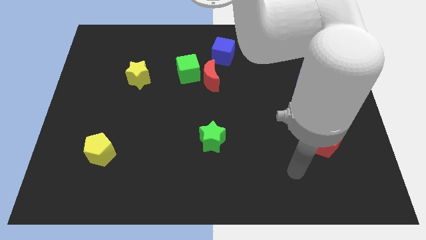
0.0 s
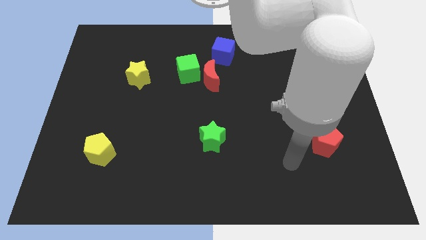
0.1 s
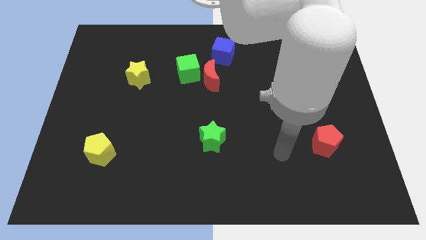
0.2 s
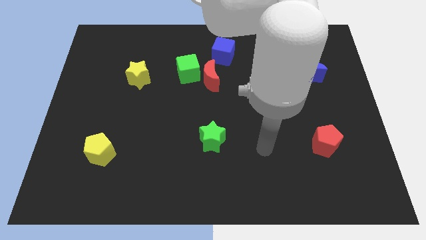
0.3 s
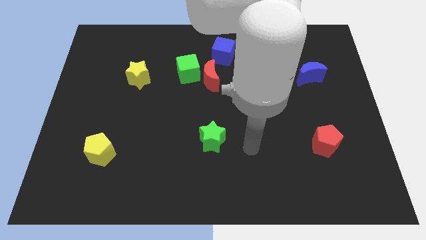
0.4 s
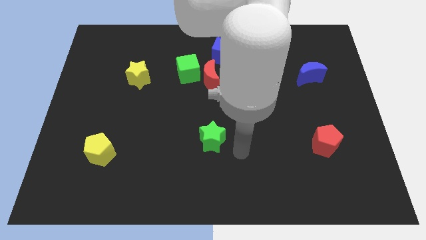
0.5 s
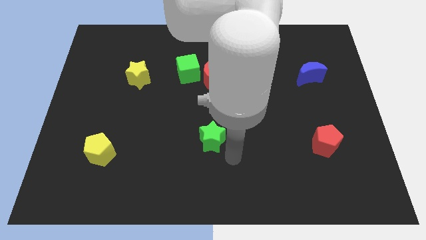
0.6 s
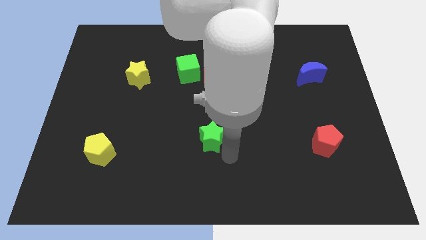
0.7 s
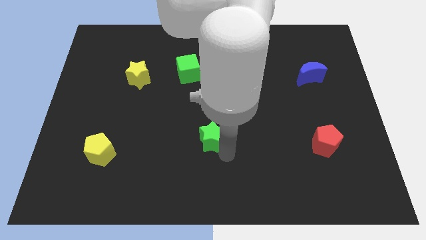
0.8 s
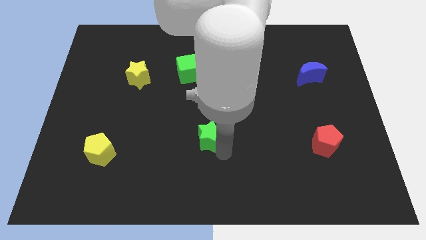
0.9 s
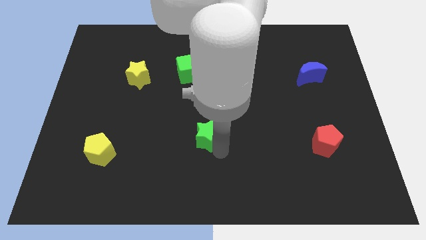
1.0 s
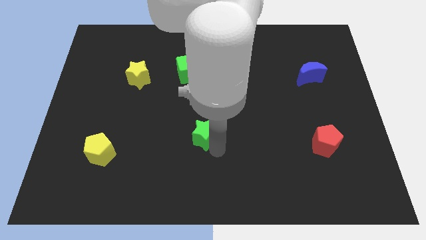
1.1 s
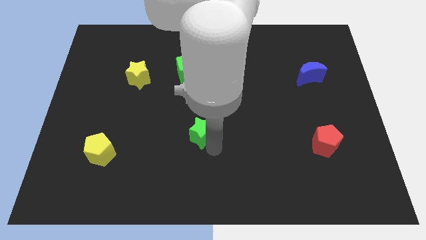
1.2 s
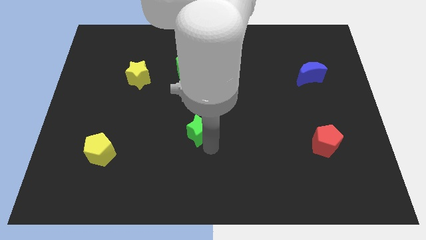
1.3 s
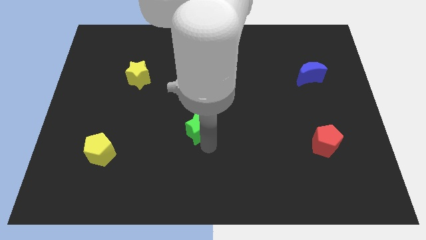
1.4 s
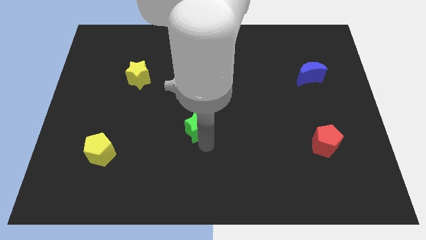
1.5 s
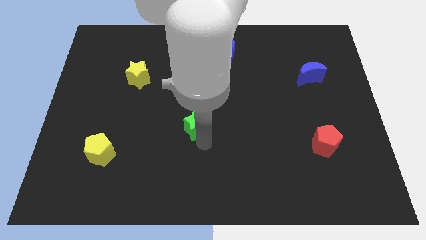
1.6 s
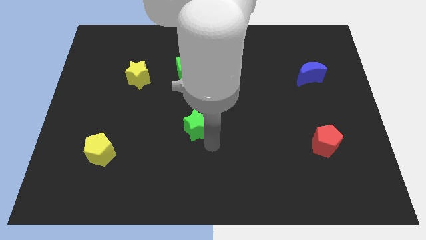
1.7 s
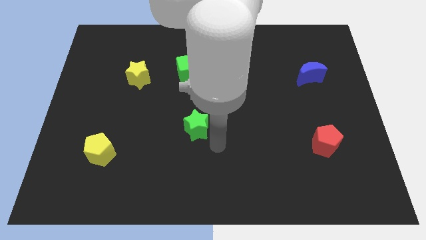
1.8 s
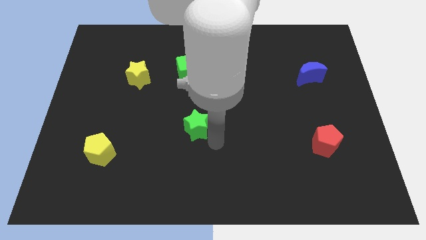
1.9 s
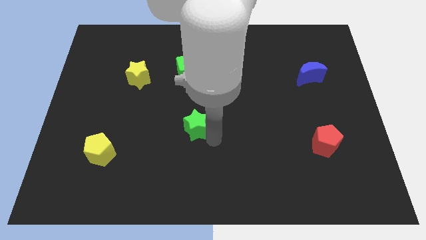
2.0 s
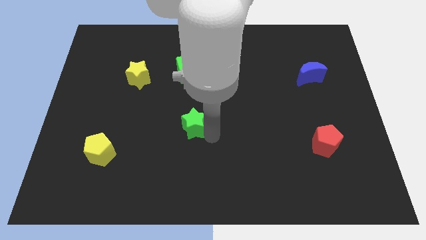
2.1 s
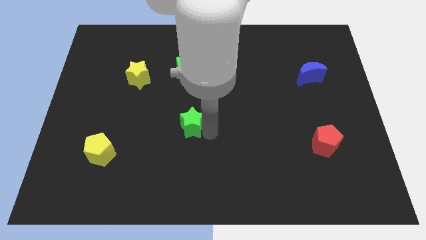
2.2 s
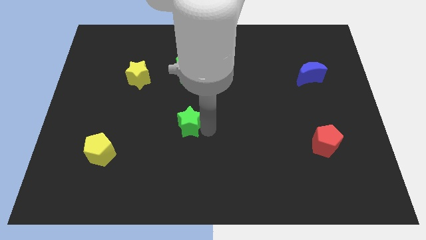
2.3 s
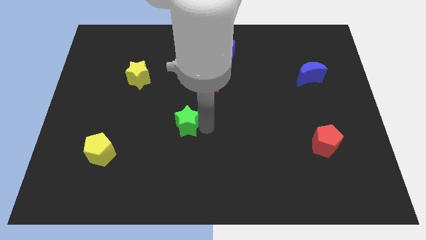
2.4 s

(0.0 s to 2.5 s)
move the green star somewhat upwards and to the left diagonally

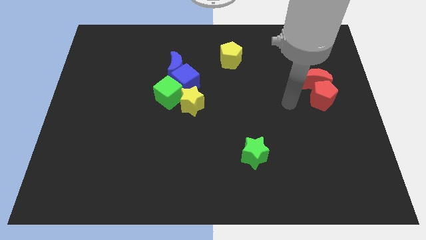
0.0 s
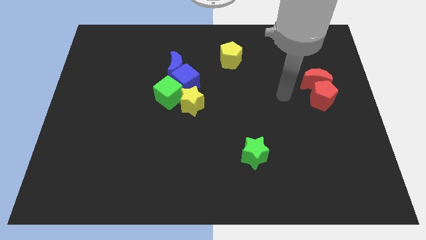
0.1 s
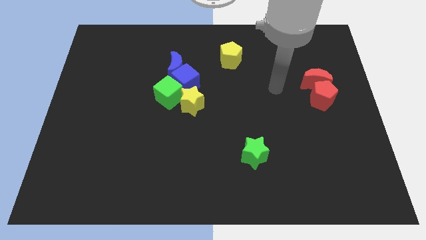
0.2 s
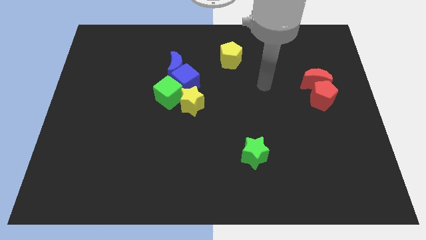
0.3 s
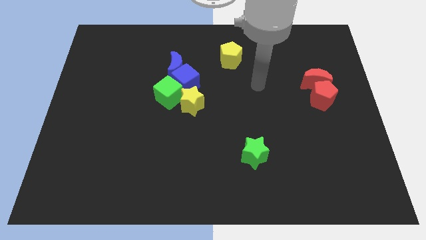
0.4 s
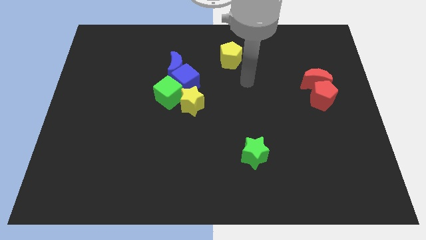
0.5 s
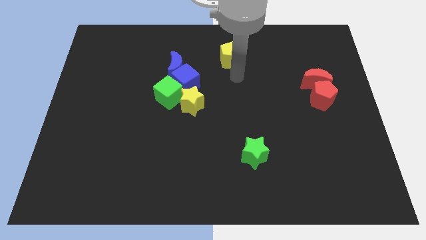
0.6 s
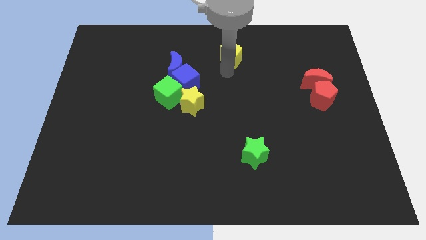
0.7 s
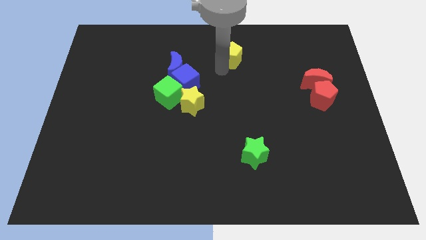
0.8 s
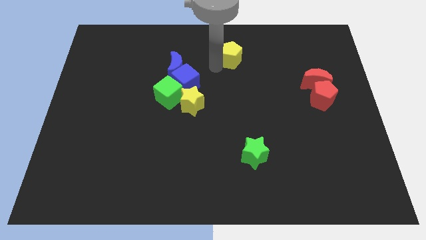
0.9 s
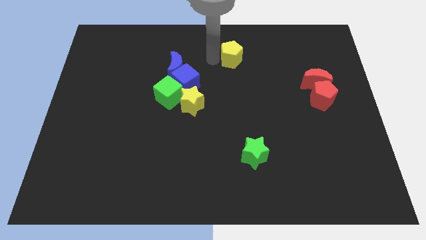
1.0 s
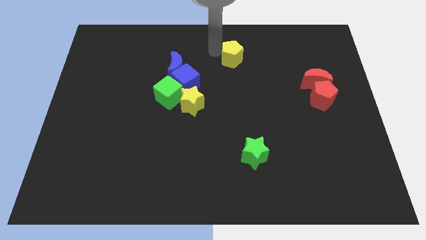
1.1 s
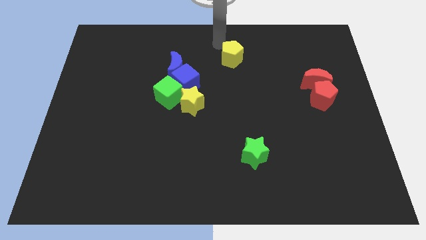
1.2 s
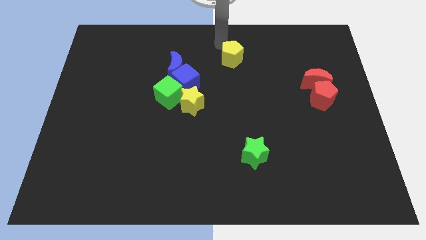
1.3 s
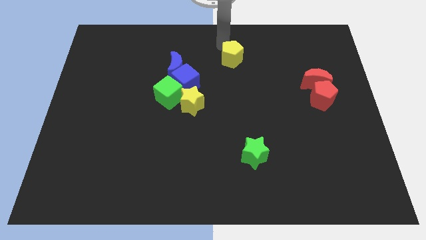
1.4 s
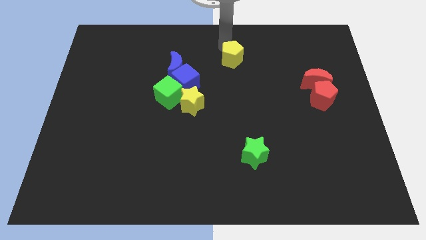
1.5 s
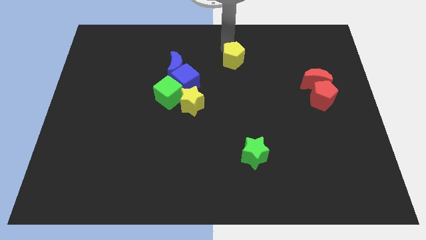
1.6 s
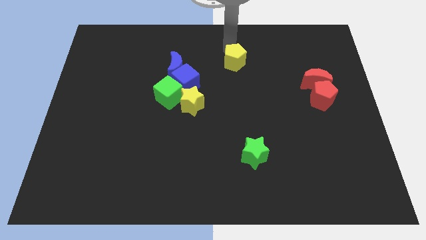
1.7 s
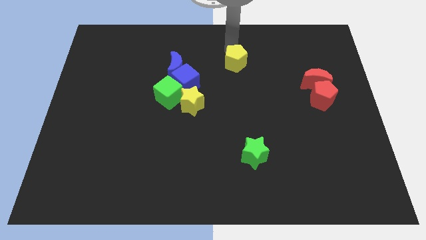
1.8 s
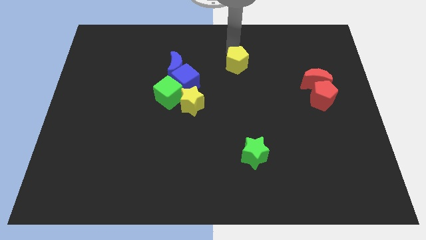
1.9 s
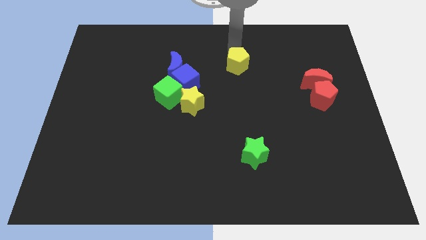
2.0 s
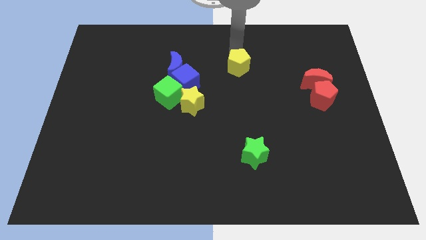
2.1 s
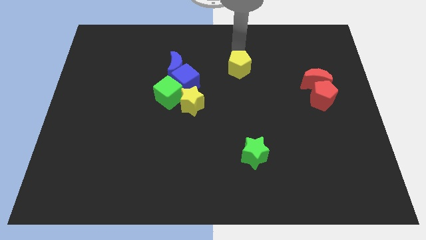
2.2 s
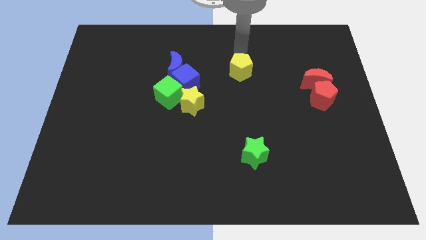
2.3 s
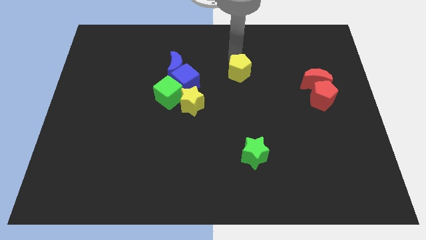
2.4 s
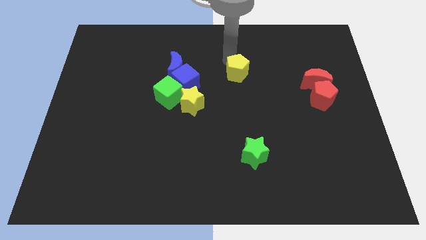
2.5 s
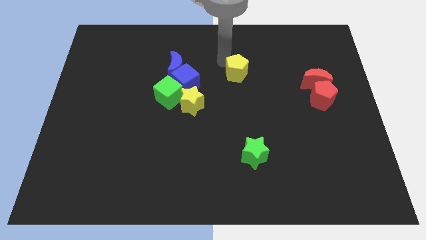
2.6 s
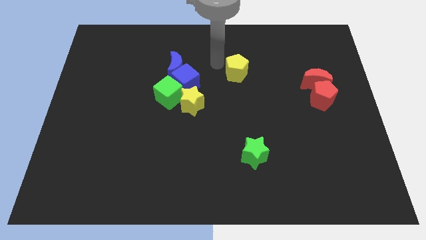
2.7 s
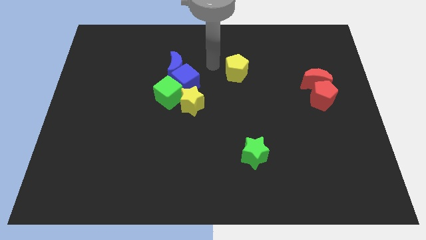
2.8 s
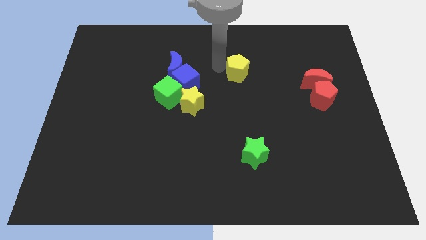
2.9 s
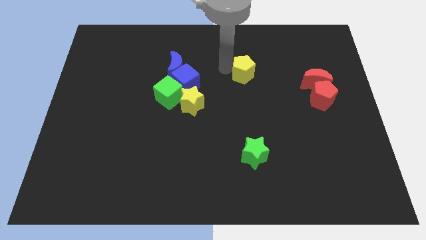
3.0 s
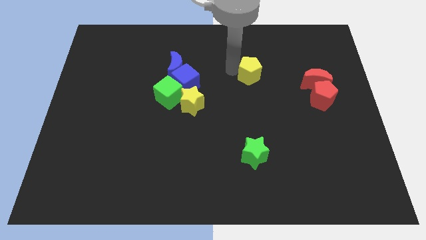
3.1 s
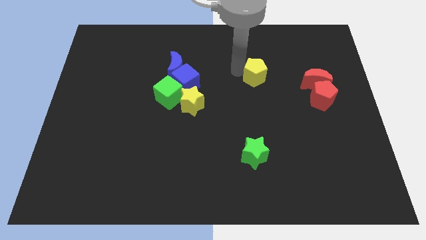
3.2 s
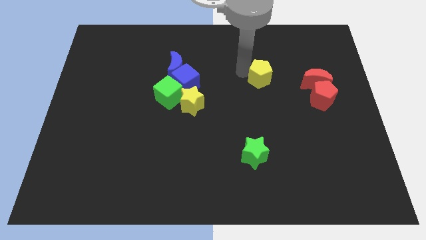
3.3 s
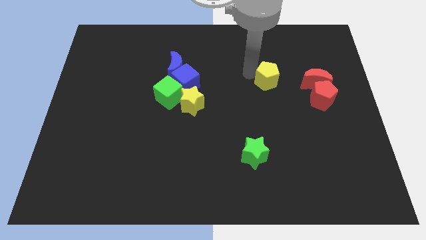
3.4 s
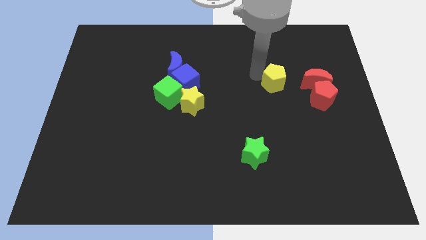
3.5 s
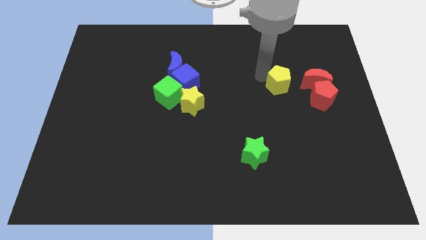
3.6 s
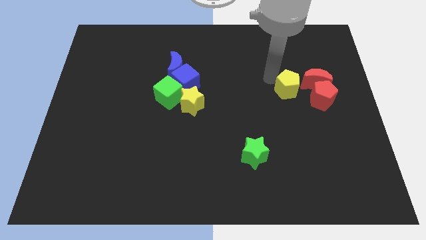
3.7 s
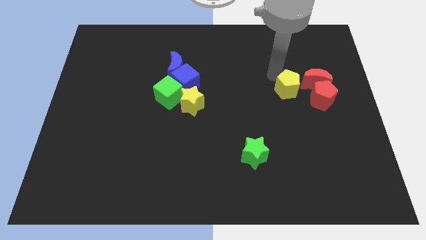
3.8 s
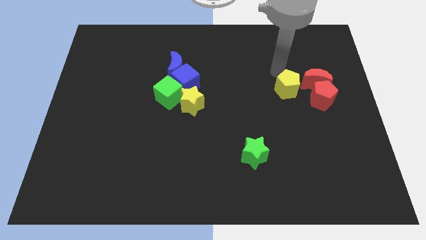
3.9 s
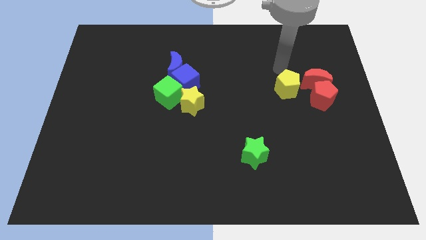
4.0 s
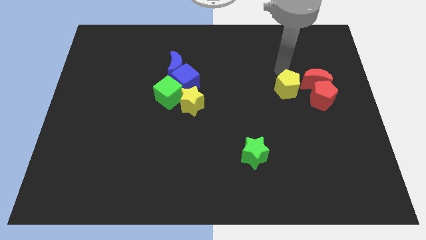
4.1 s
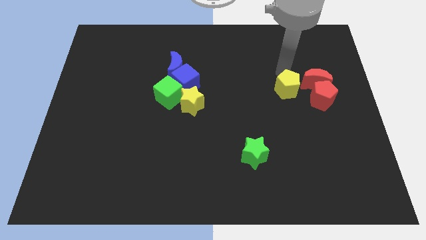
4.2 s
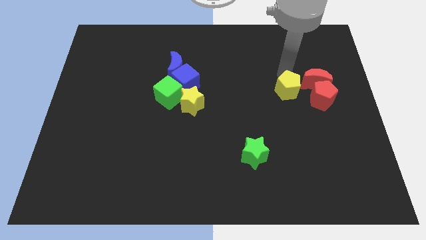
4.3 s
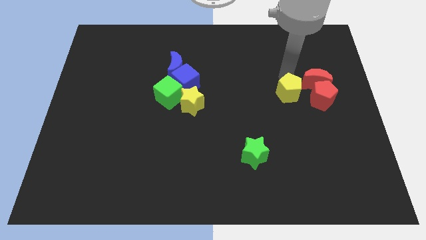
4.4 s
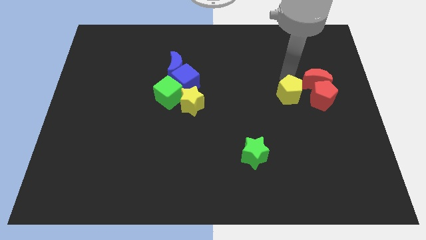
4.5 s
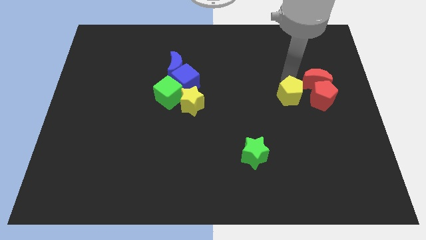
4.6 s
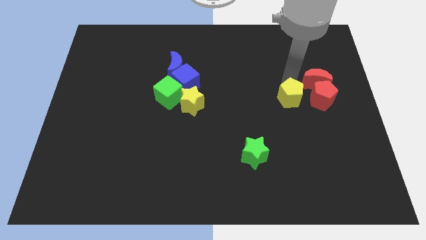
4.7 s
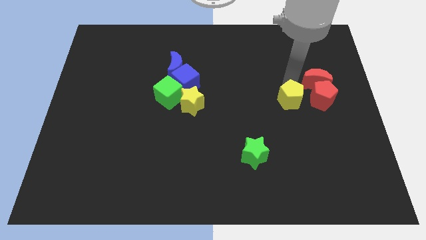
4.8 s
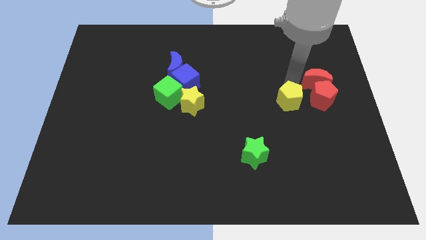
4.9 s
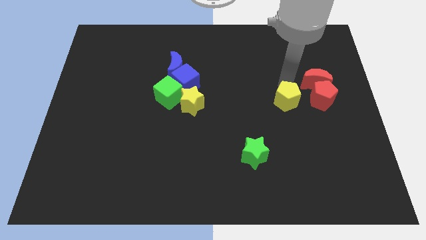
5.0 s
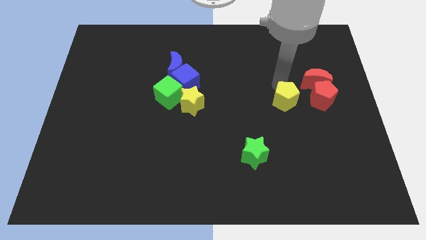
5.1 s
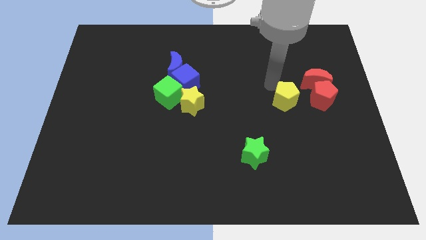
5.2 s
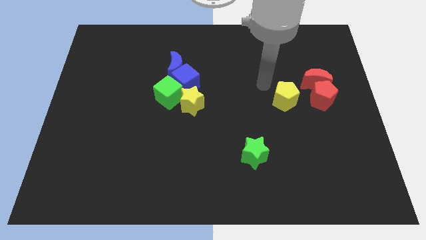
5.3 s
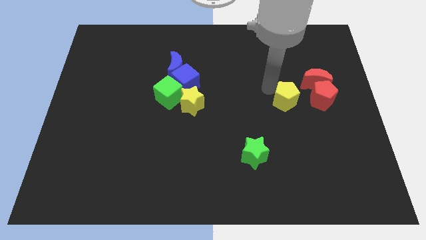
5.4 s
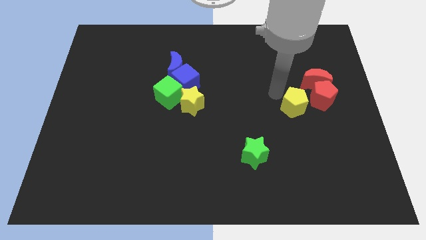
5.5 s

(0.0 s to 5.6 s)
move the yellow pentagon downwards and then right

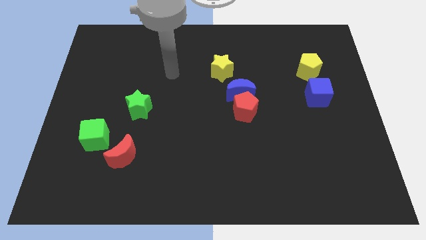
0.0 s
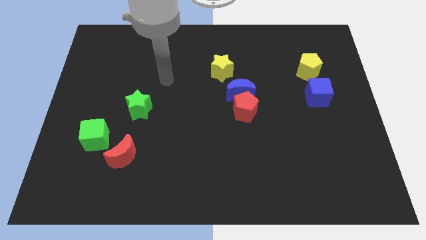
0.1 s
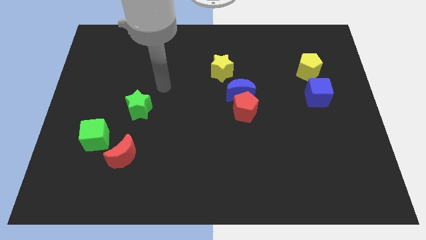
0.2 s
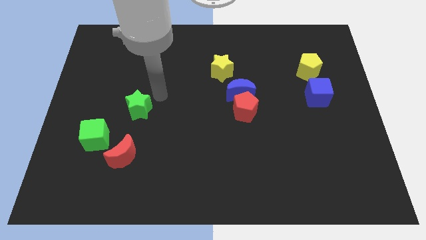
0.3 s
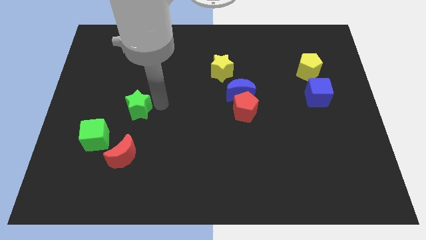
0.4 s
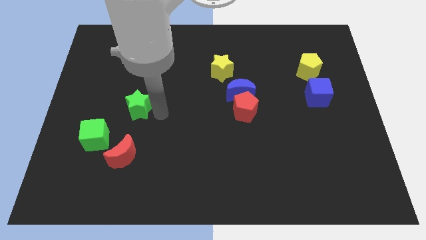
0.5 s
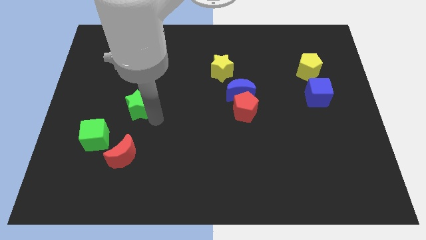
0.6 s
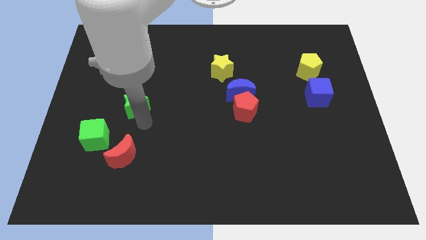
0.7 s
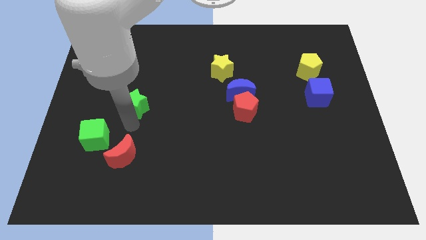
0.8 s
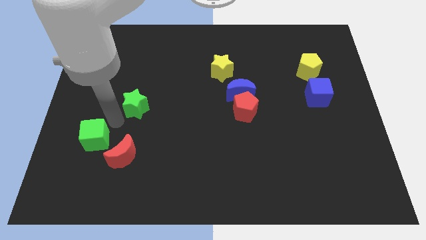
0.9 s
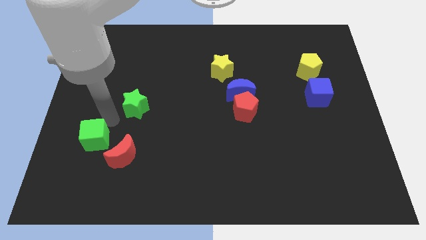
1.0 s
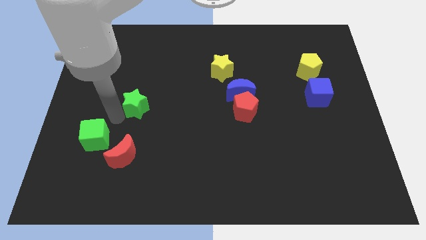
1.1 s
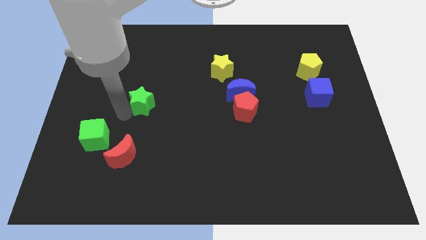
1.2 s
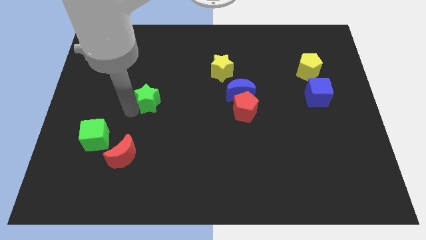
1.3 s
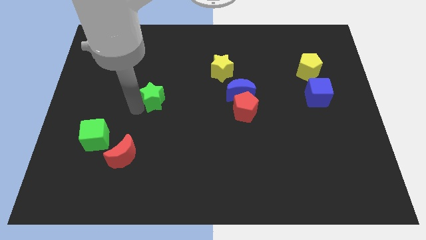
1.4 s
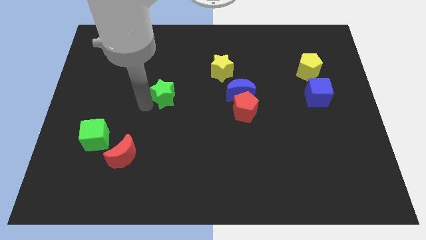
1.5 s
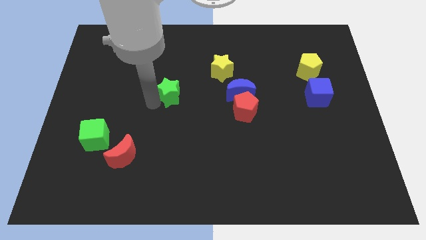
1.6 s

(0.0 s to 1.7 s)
slightly move the green star upwards and to the right
